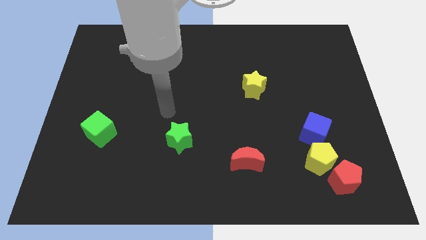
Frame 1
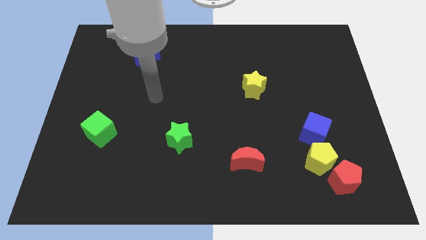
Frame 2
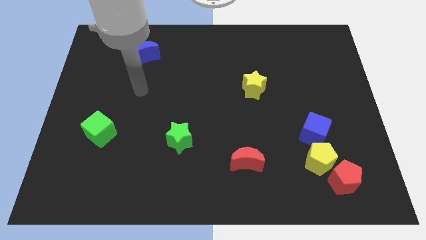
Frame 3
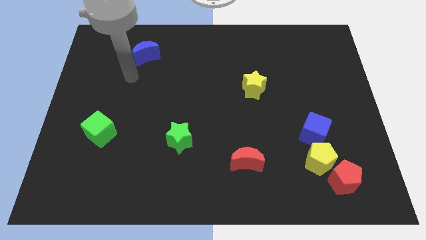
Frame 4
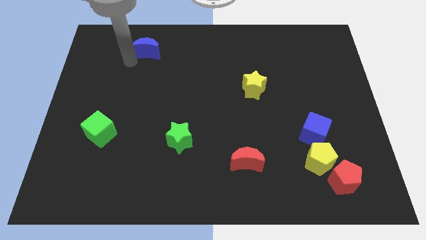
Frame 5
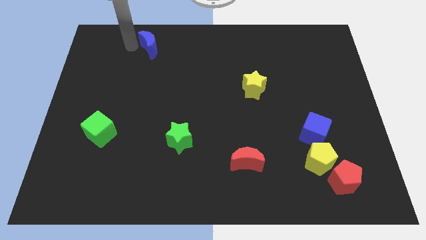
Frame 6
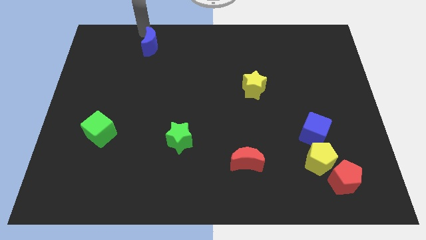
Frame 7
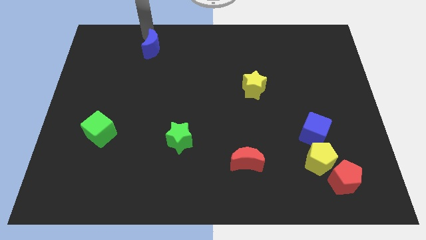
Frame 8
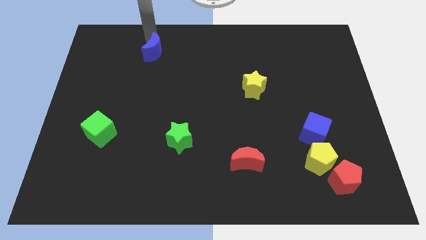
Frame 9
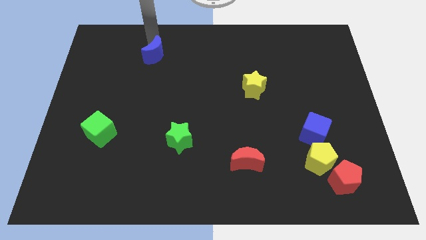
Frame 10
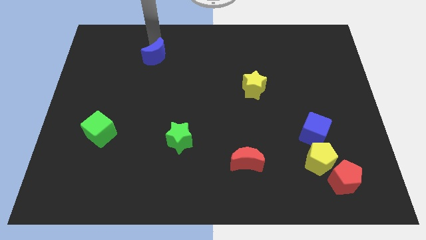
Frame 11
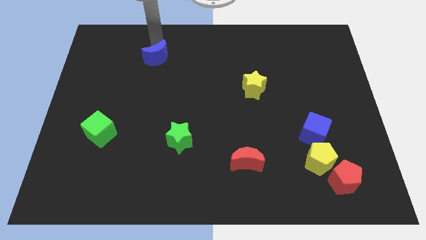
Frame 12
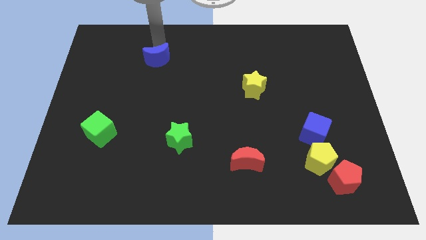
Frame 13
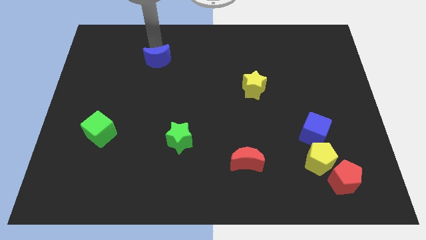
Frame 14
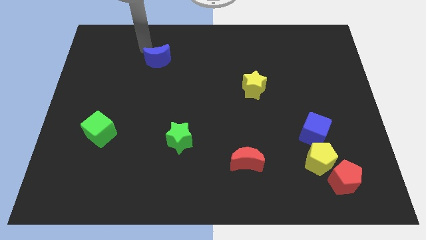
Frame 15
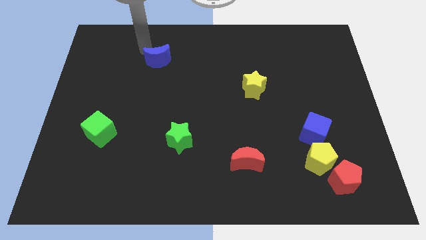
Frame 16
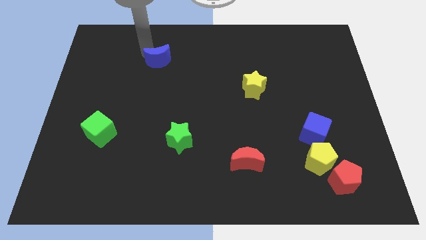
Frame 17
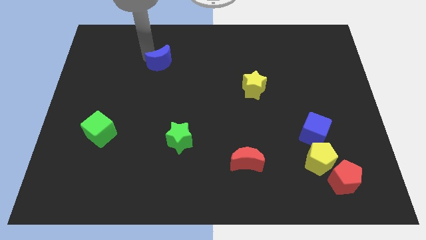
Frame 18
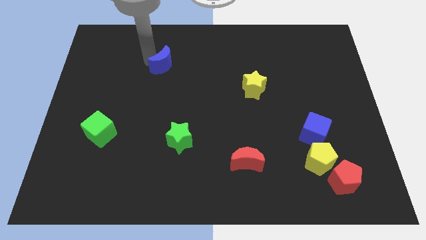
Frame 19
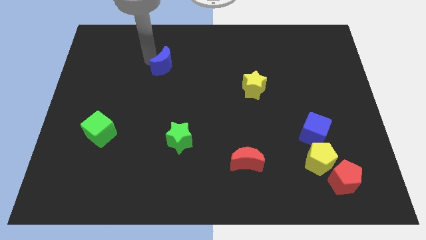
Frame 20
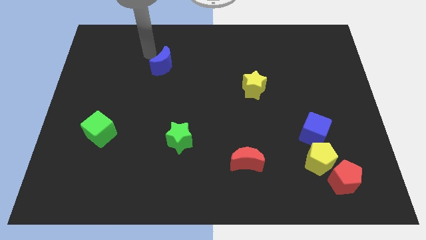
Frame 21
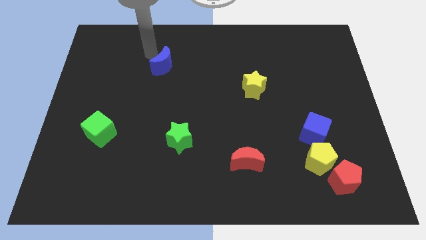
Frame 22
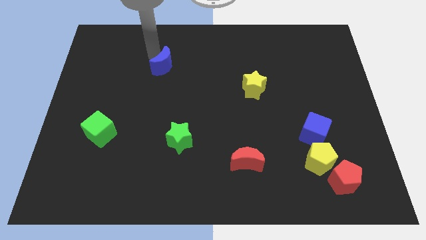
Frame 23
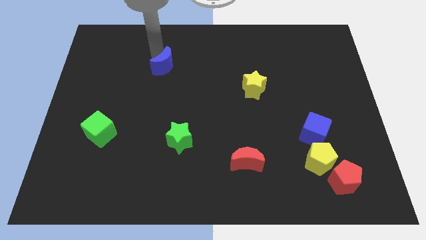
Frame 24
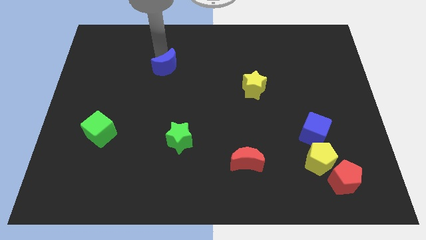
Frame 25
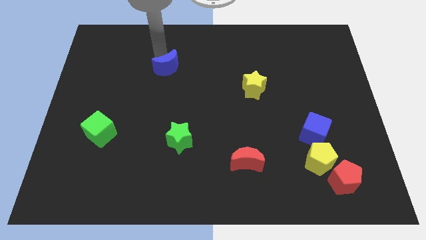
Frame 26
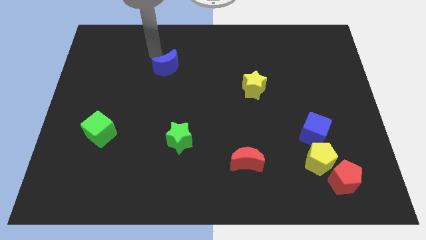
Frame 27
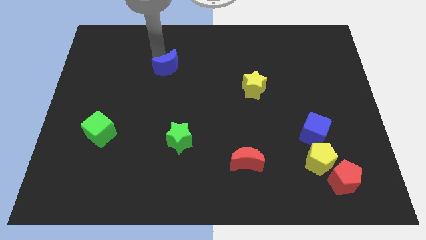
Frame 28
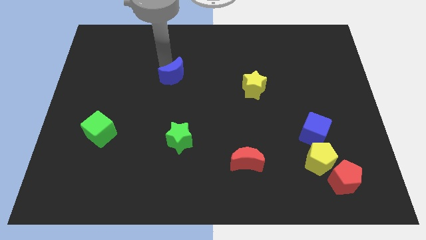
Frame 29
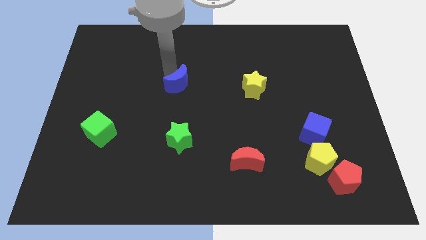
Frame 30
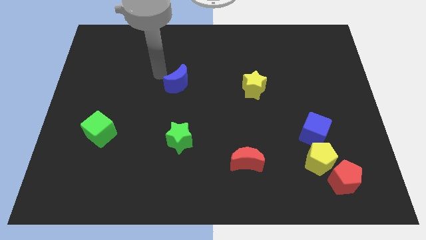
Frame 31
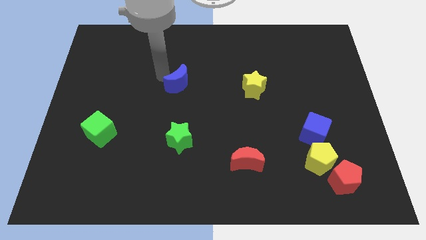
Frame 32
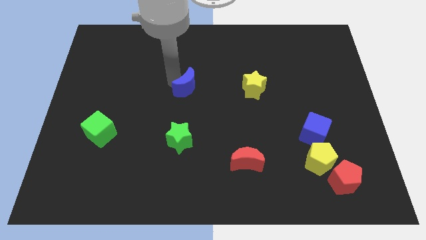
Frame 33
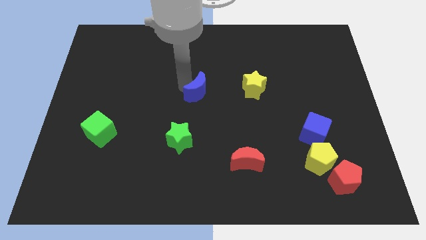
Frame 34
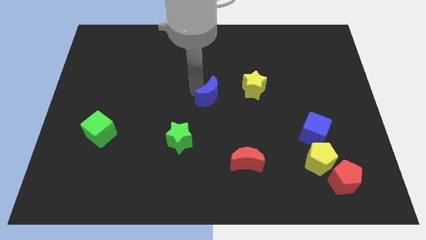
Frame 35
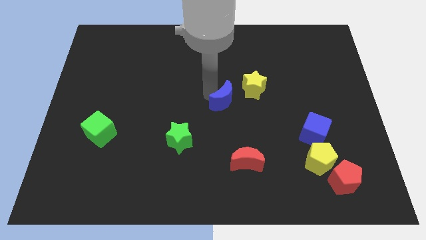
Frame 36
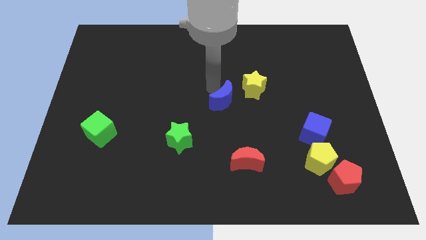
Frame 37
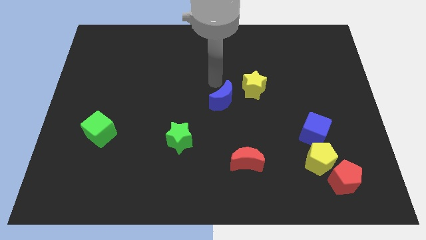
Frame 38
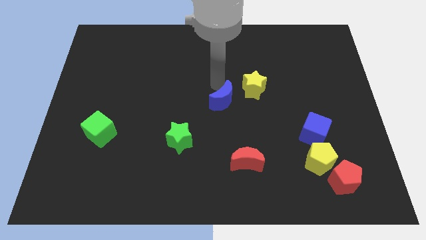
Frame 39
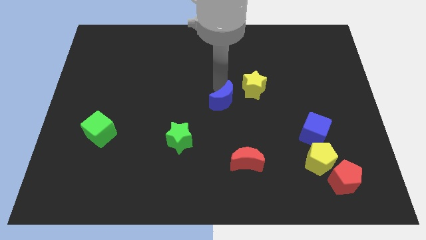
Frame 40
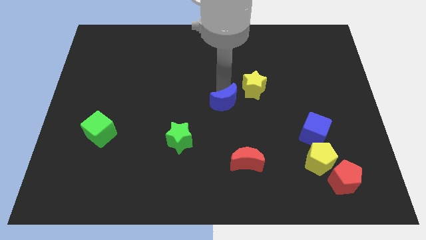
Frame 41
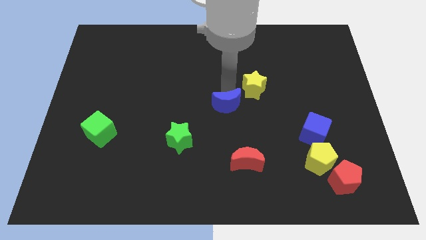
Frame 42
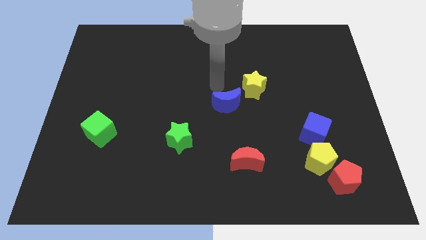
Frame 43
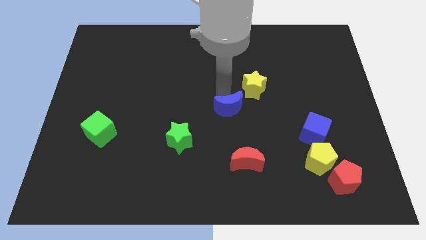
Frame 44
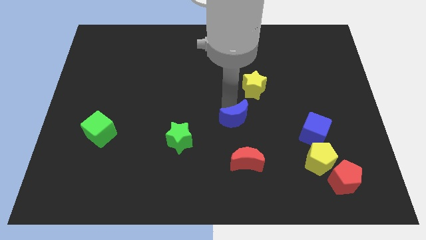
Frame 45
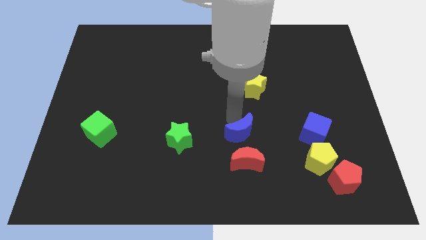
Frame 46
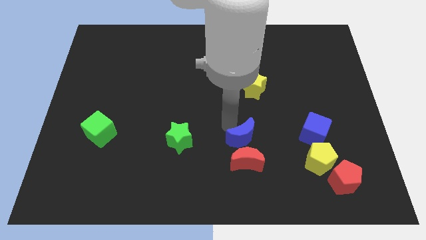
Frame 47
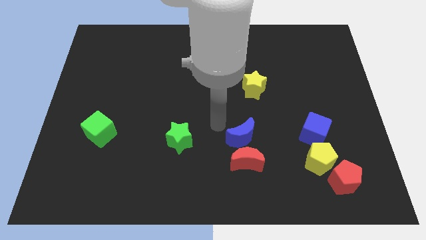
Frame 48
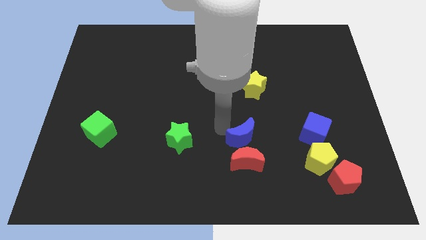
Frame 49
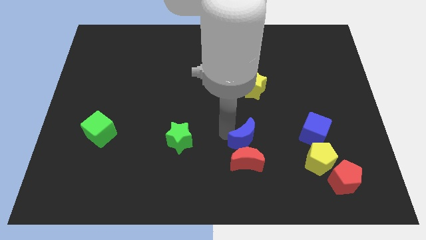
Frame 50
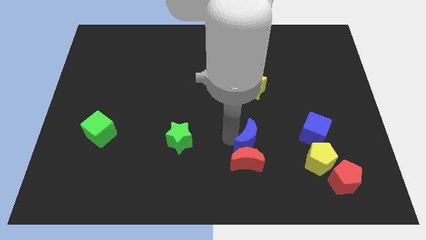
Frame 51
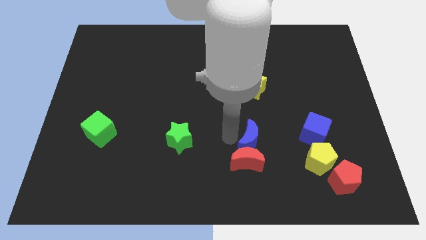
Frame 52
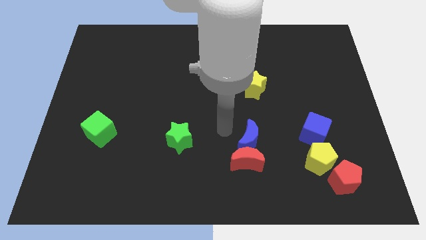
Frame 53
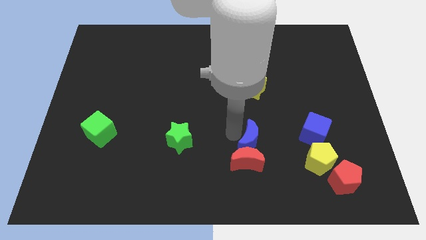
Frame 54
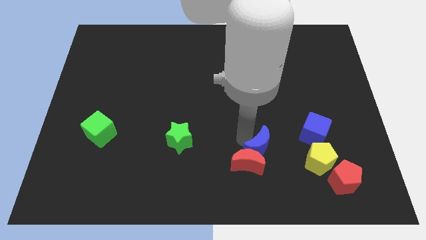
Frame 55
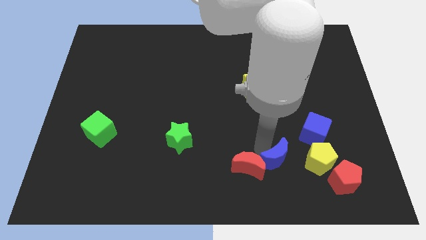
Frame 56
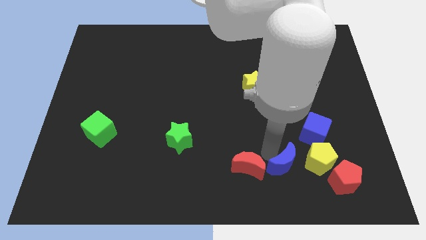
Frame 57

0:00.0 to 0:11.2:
move the blue moon to the bottom left of the yellow pentagon

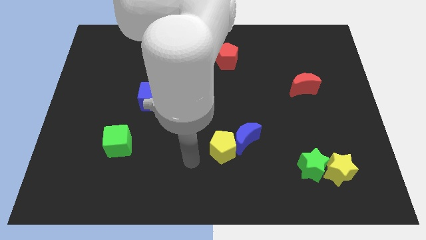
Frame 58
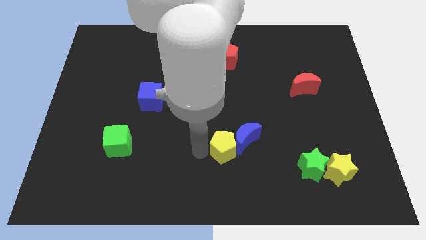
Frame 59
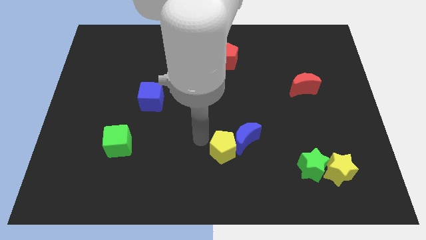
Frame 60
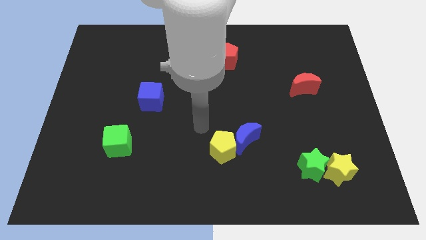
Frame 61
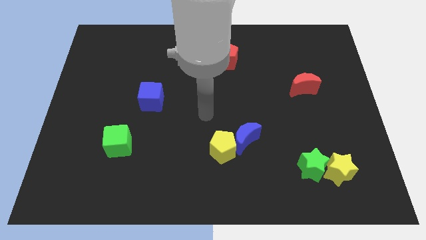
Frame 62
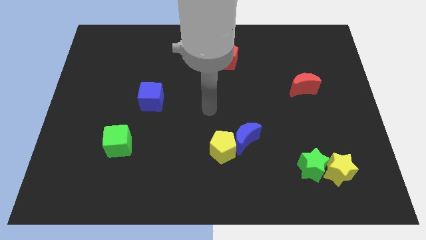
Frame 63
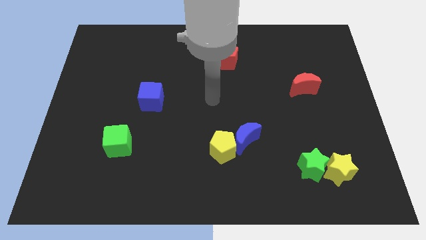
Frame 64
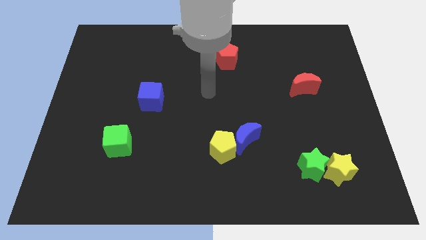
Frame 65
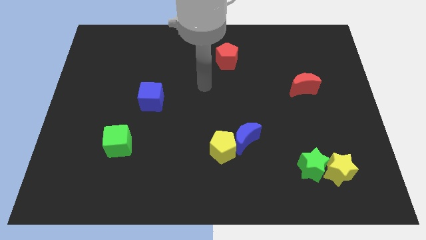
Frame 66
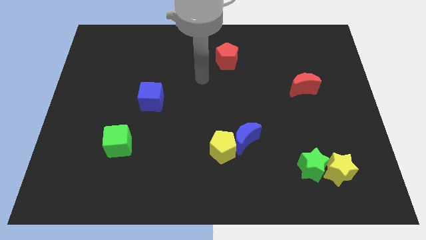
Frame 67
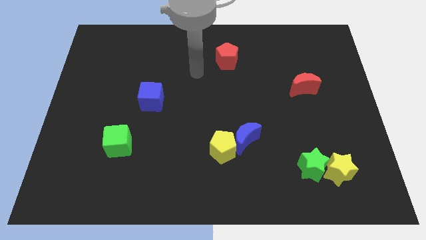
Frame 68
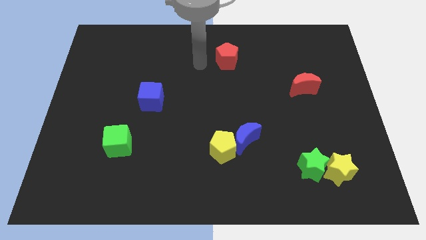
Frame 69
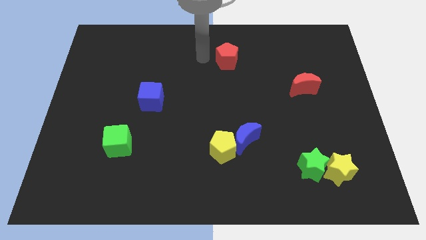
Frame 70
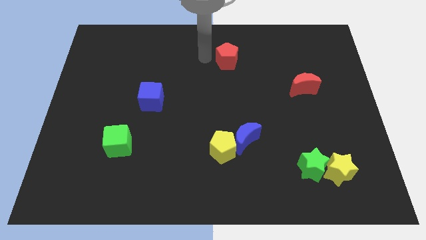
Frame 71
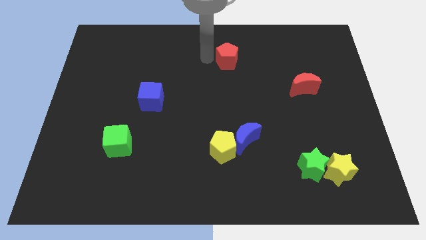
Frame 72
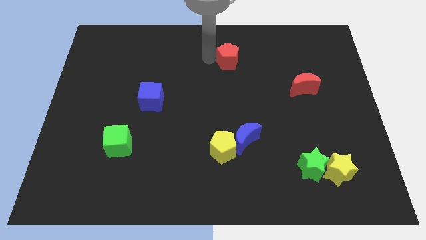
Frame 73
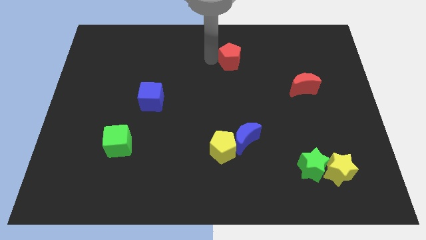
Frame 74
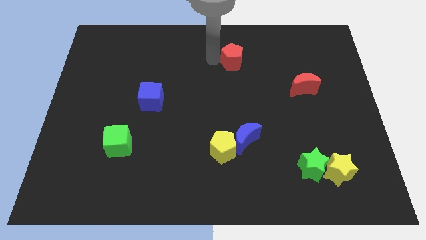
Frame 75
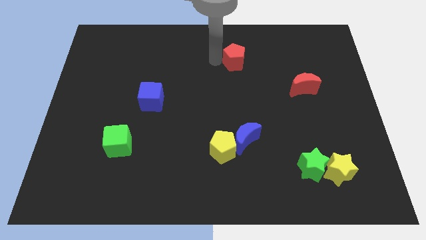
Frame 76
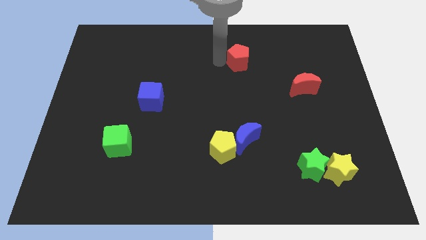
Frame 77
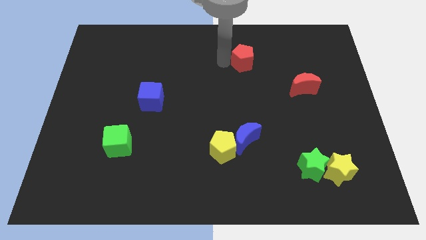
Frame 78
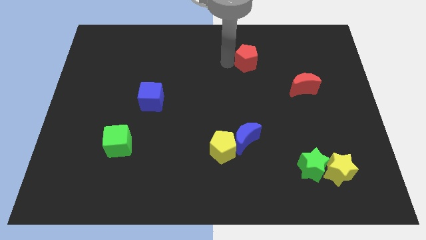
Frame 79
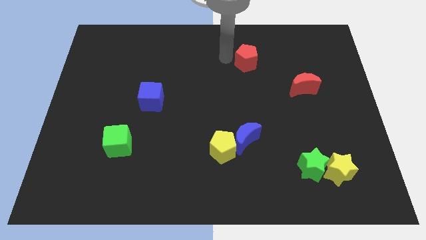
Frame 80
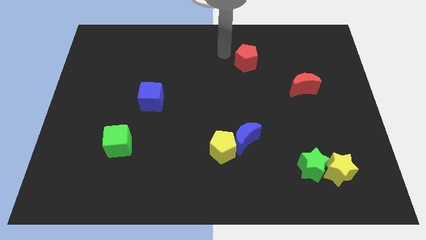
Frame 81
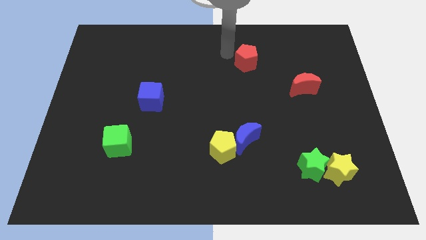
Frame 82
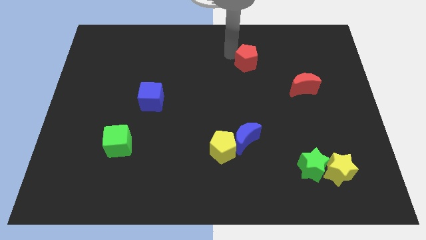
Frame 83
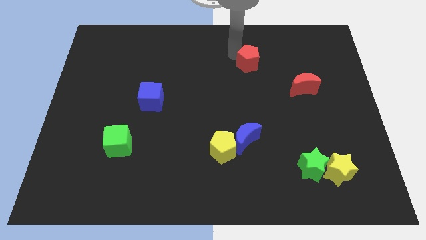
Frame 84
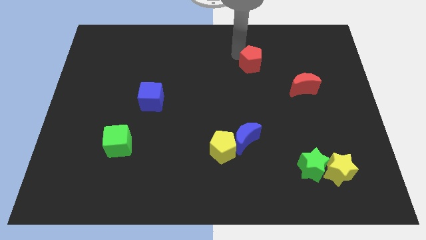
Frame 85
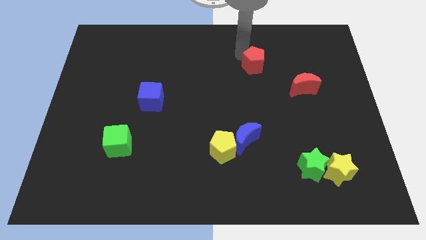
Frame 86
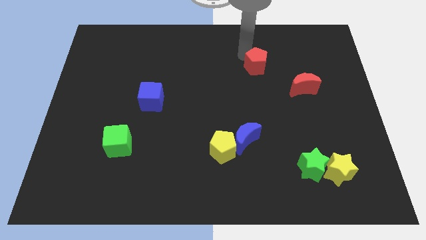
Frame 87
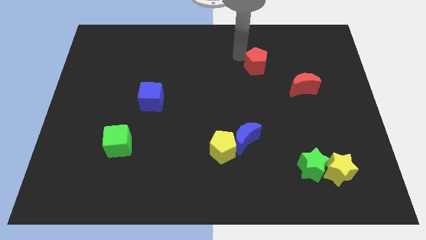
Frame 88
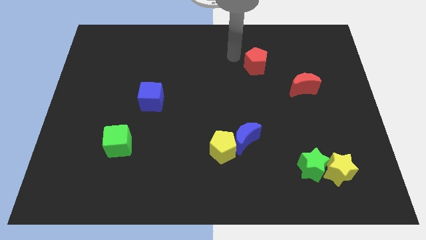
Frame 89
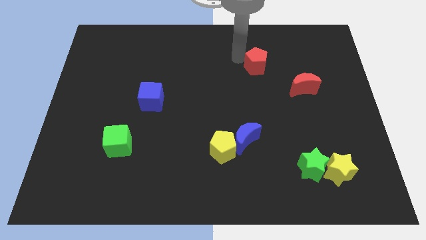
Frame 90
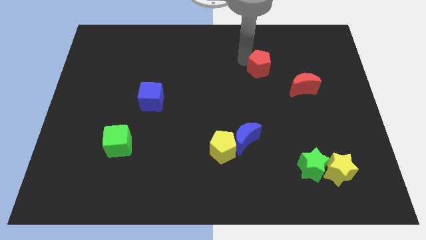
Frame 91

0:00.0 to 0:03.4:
move the red pentagon to the top left of the red moon
